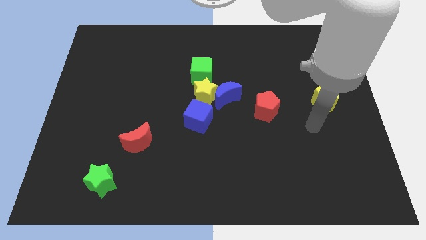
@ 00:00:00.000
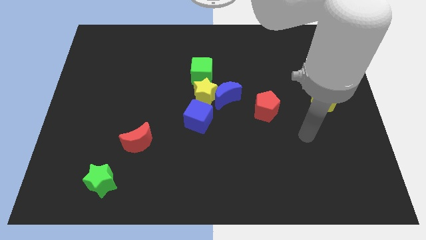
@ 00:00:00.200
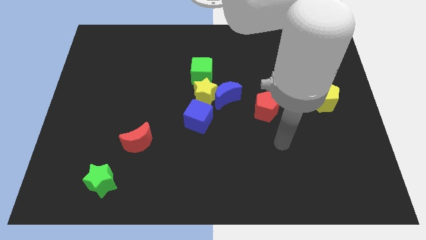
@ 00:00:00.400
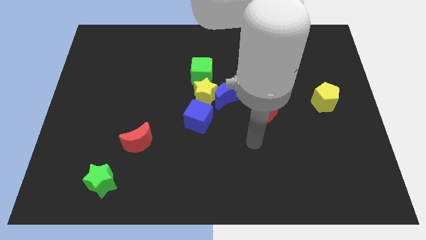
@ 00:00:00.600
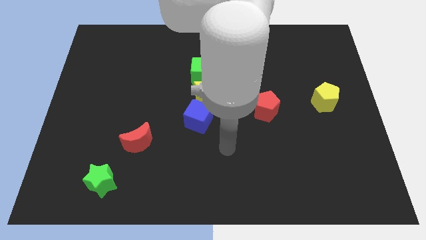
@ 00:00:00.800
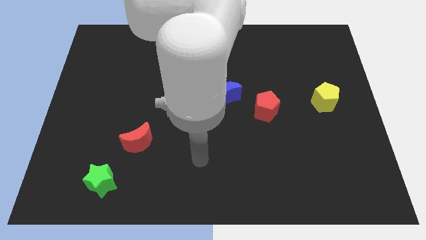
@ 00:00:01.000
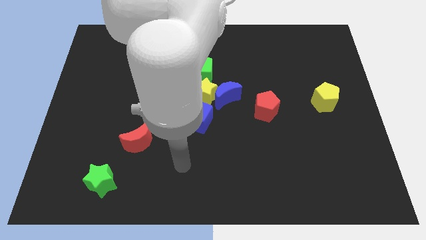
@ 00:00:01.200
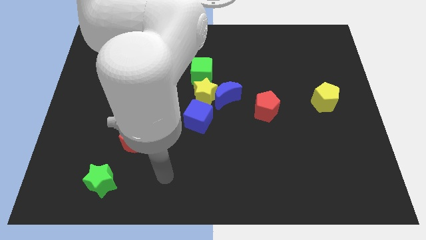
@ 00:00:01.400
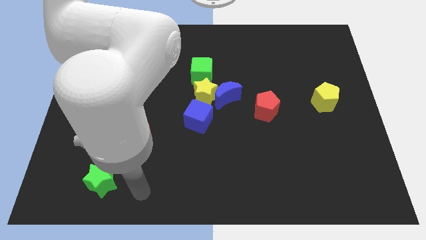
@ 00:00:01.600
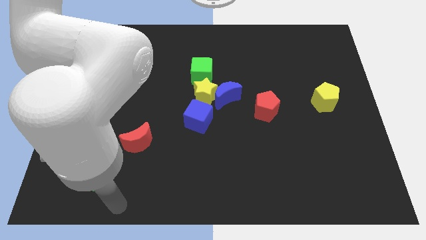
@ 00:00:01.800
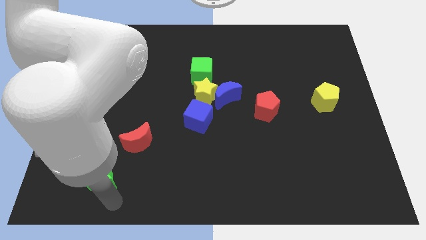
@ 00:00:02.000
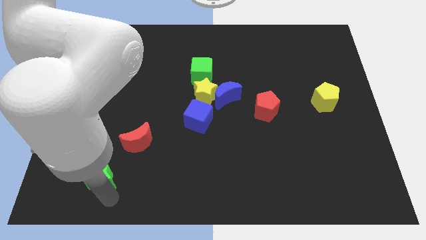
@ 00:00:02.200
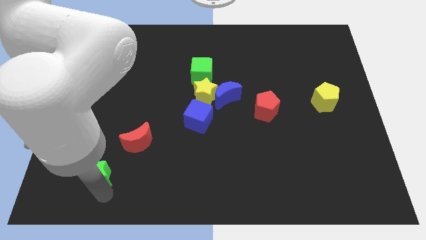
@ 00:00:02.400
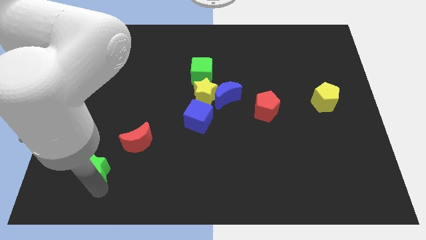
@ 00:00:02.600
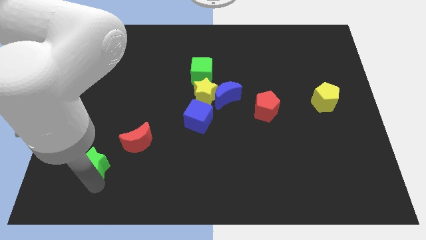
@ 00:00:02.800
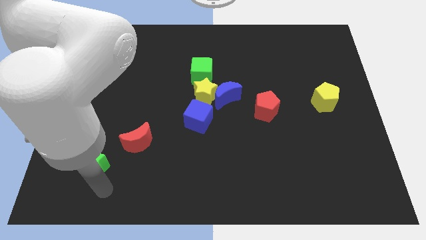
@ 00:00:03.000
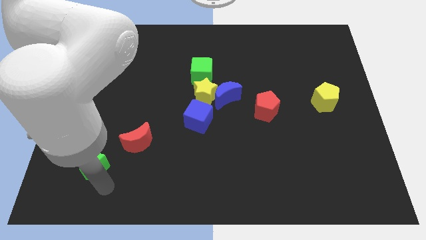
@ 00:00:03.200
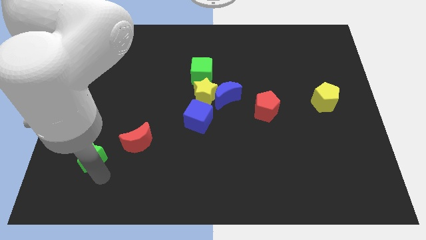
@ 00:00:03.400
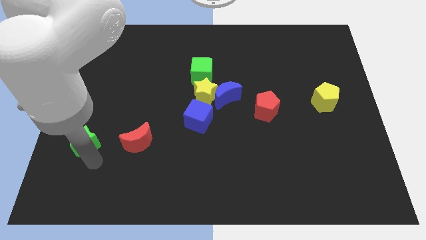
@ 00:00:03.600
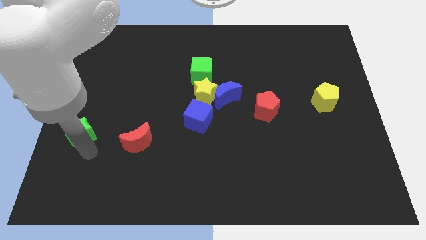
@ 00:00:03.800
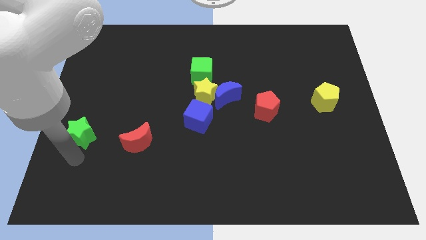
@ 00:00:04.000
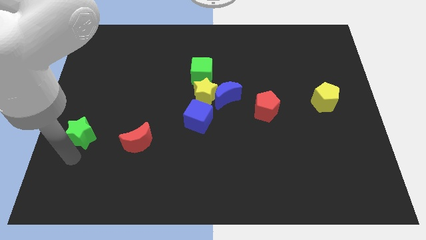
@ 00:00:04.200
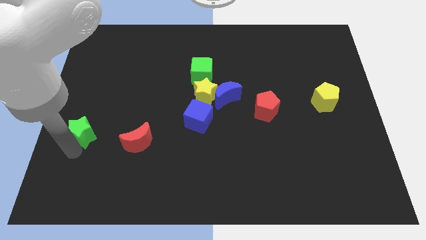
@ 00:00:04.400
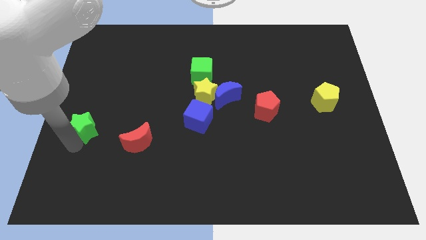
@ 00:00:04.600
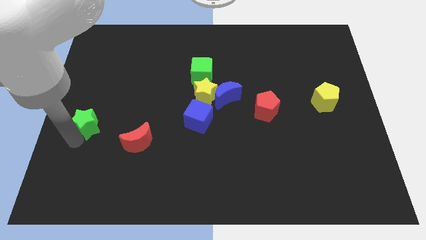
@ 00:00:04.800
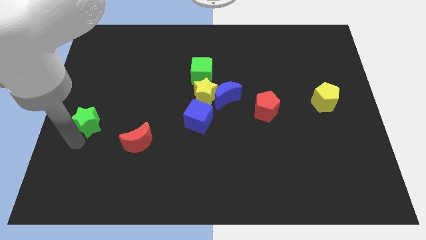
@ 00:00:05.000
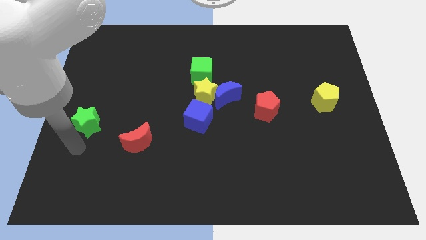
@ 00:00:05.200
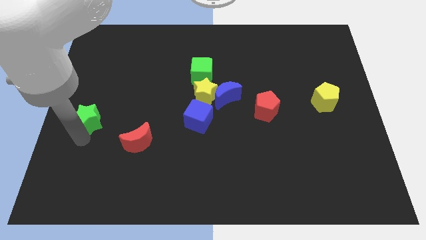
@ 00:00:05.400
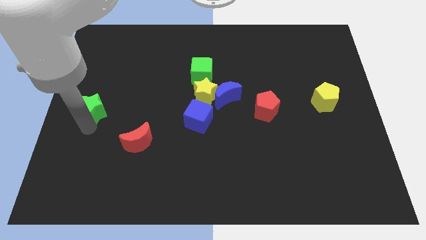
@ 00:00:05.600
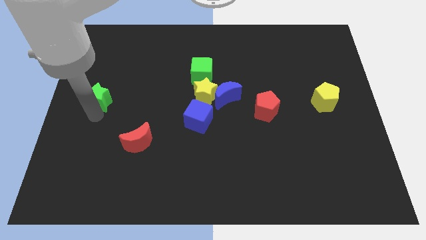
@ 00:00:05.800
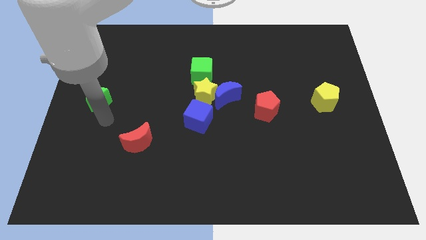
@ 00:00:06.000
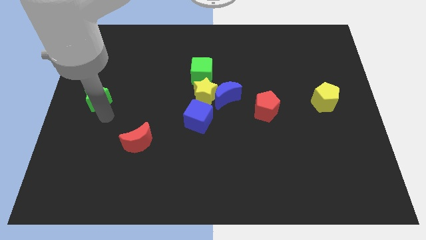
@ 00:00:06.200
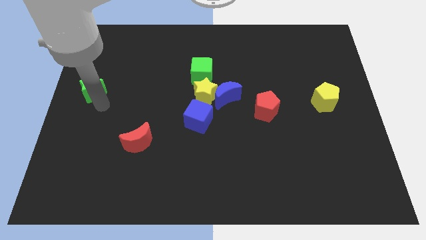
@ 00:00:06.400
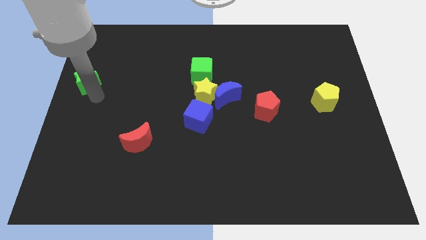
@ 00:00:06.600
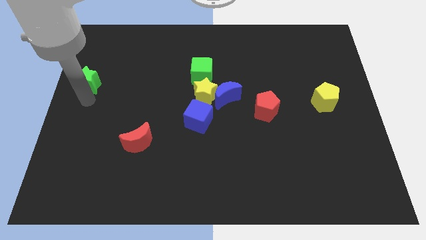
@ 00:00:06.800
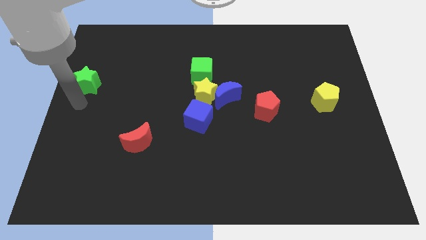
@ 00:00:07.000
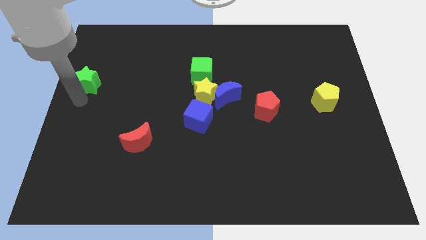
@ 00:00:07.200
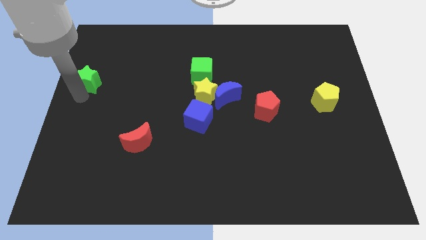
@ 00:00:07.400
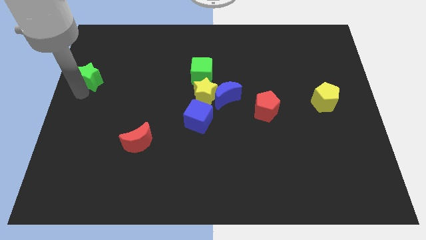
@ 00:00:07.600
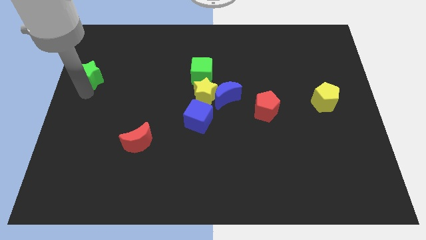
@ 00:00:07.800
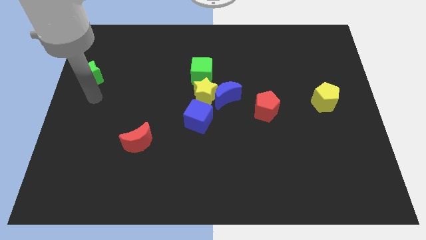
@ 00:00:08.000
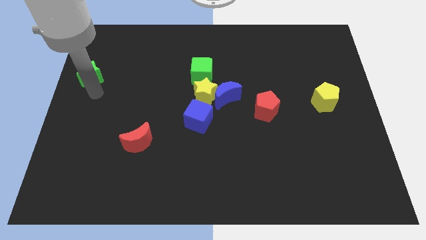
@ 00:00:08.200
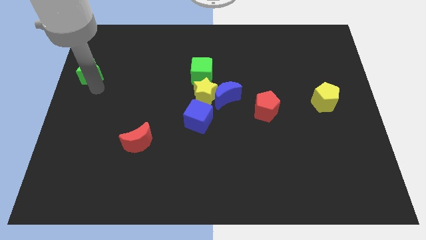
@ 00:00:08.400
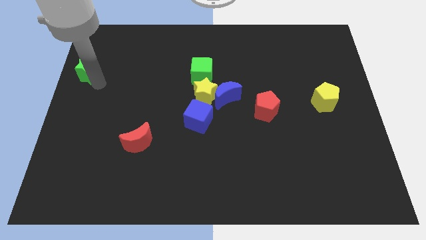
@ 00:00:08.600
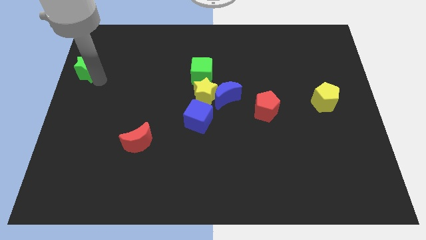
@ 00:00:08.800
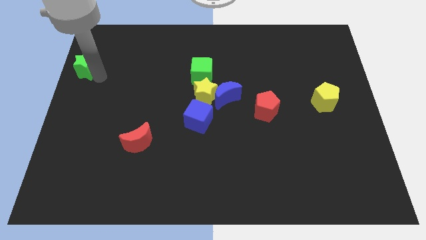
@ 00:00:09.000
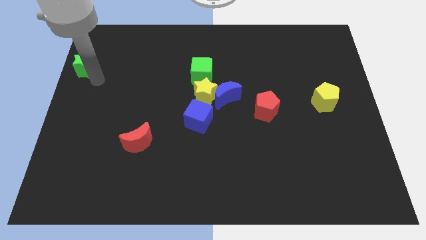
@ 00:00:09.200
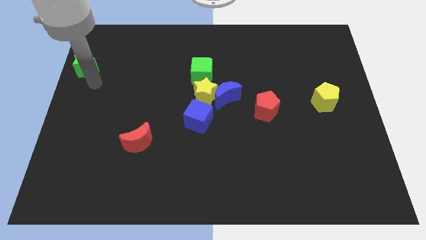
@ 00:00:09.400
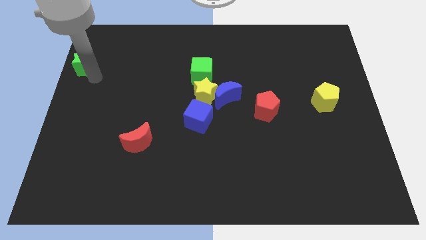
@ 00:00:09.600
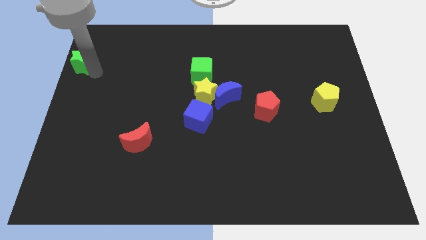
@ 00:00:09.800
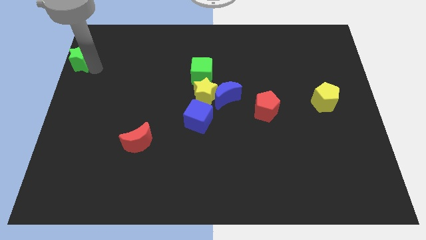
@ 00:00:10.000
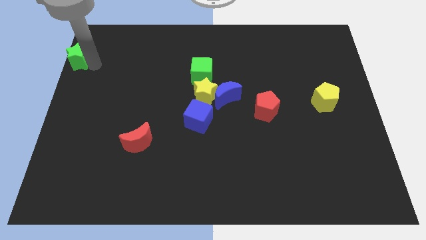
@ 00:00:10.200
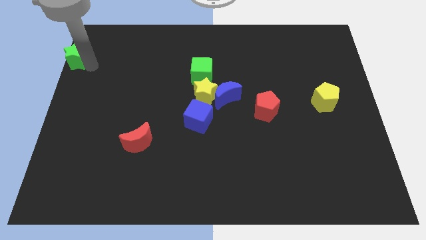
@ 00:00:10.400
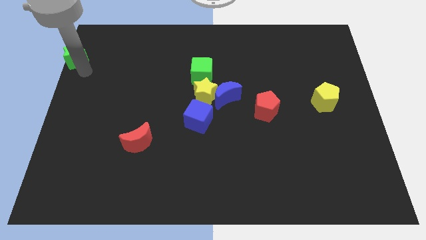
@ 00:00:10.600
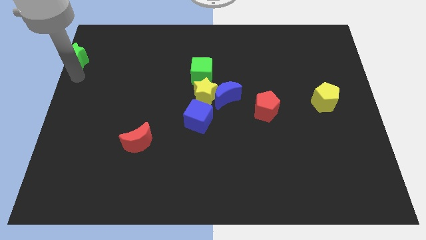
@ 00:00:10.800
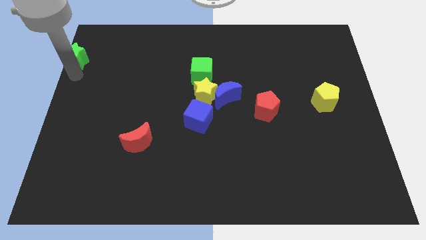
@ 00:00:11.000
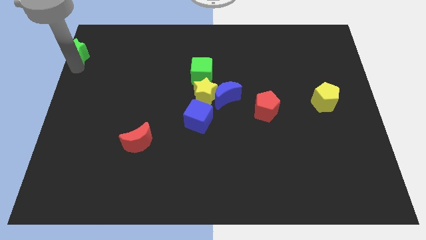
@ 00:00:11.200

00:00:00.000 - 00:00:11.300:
put the green star to the top left

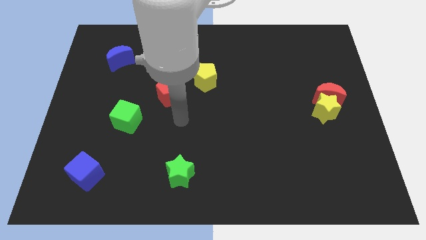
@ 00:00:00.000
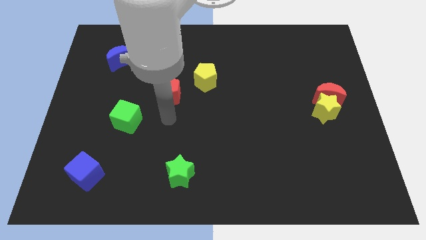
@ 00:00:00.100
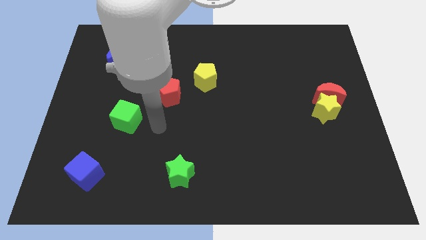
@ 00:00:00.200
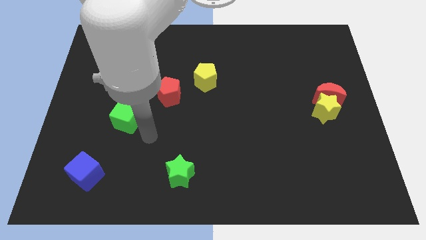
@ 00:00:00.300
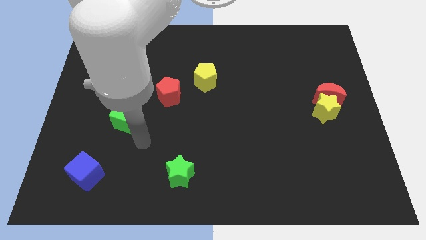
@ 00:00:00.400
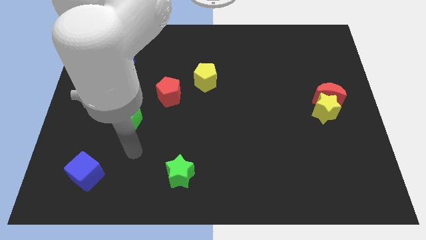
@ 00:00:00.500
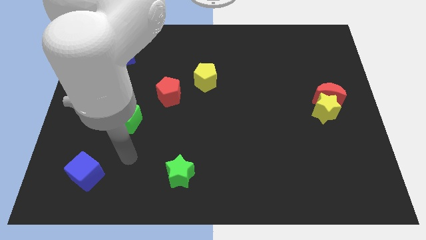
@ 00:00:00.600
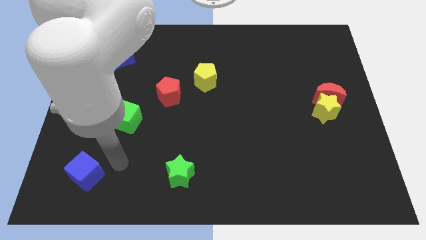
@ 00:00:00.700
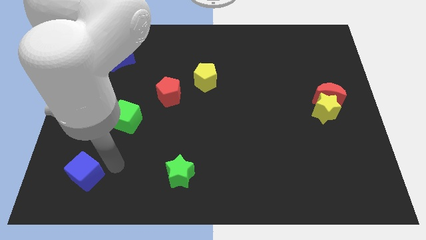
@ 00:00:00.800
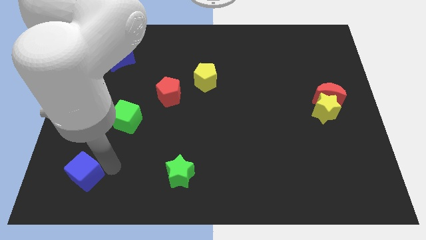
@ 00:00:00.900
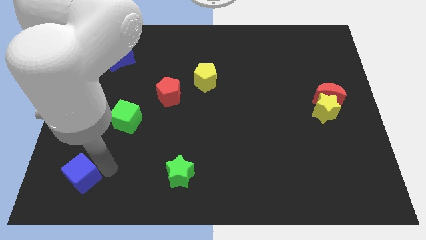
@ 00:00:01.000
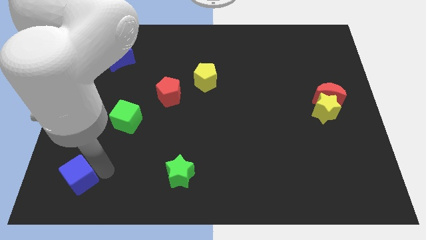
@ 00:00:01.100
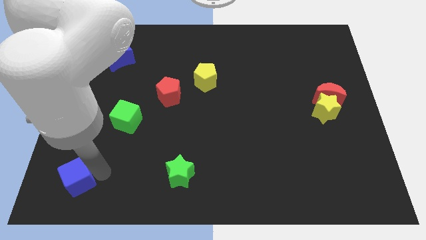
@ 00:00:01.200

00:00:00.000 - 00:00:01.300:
slide the blue cube to the bottom left of the board
